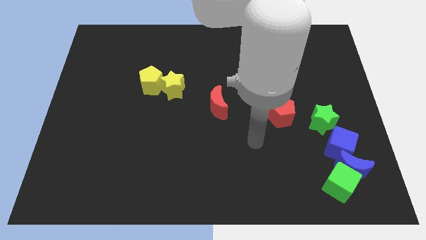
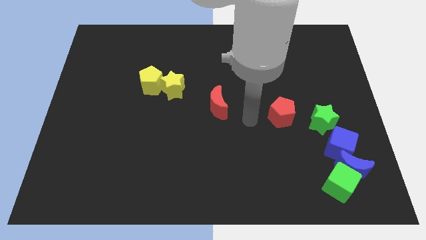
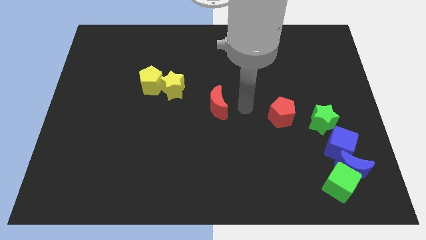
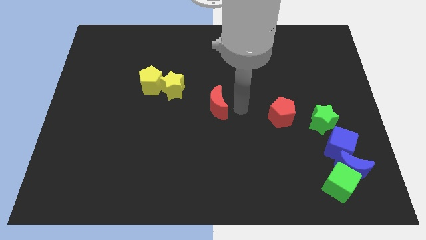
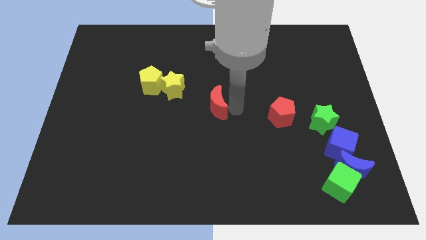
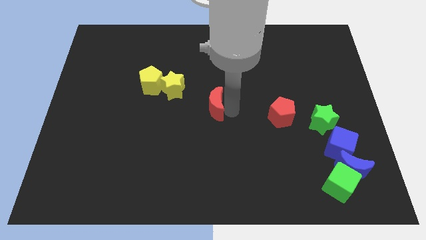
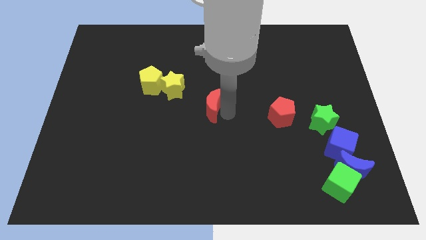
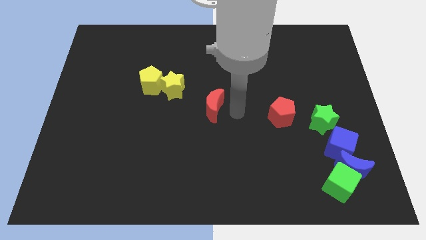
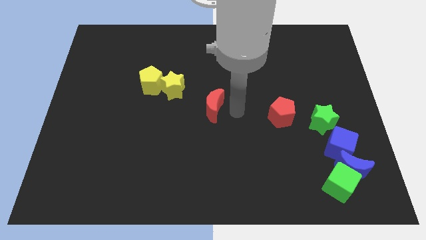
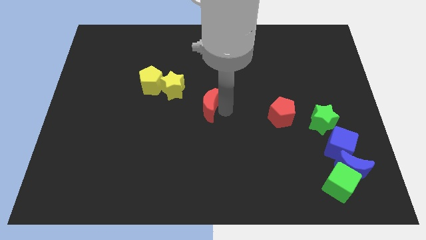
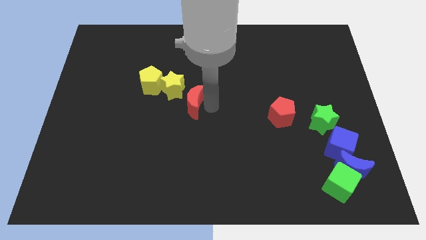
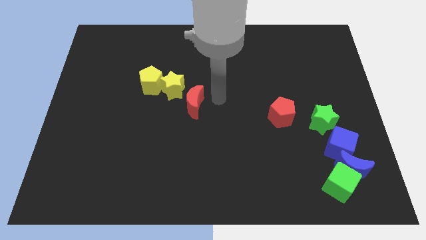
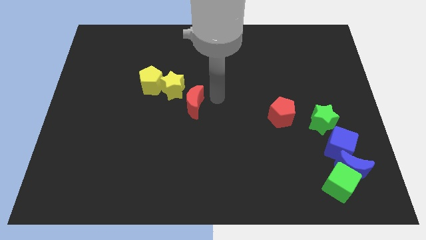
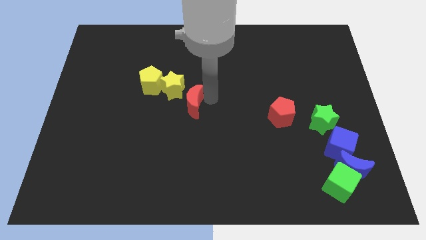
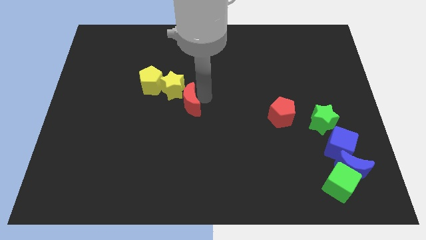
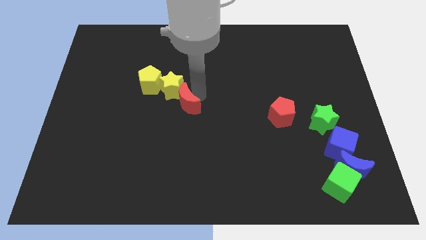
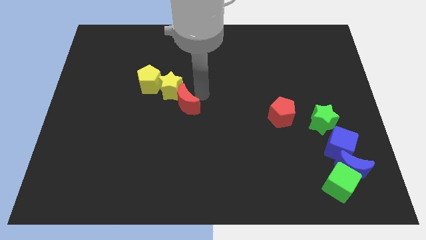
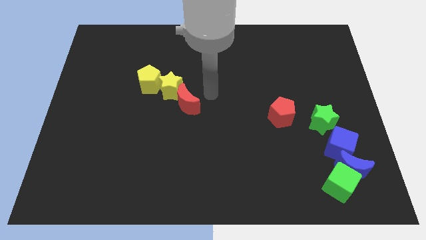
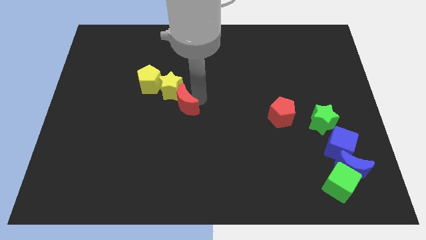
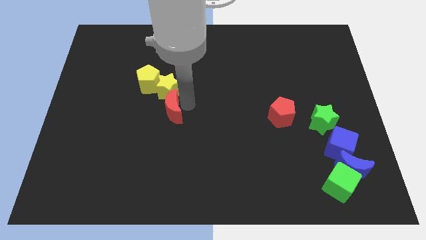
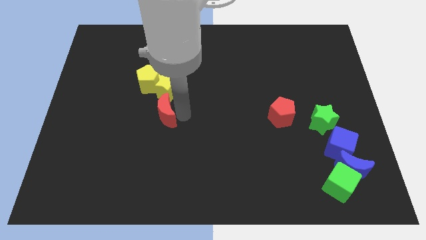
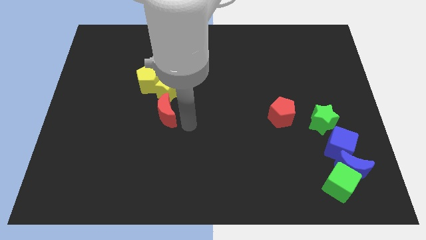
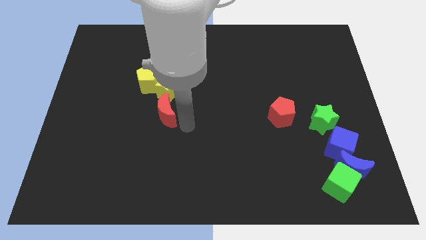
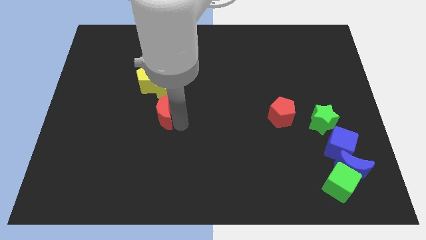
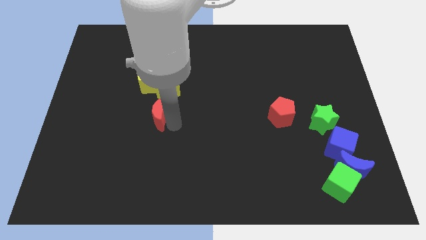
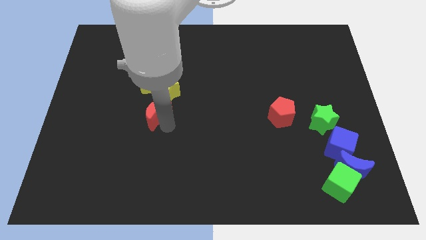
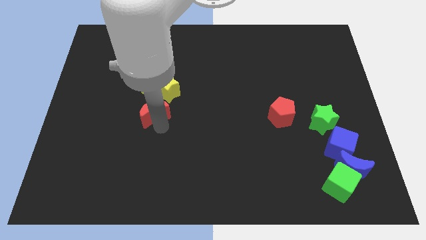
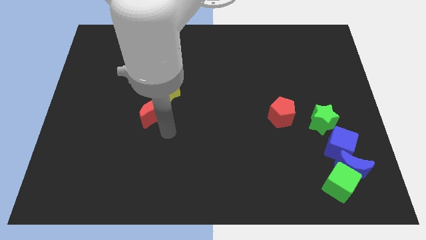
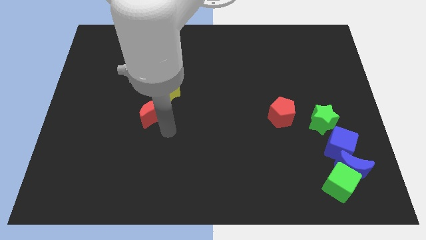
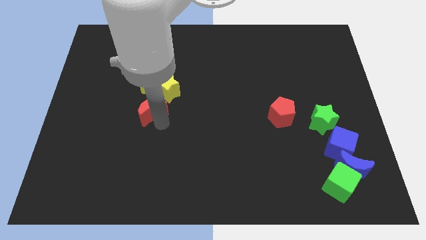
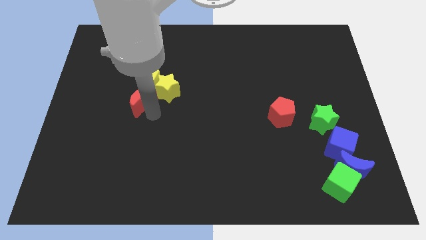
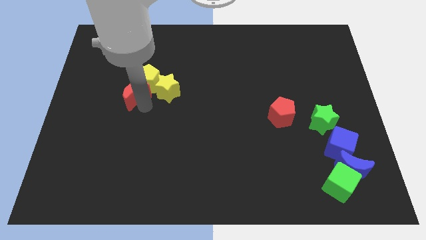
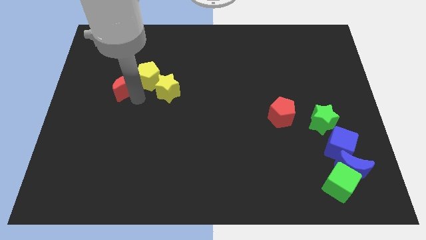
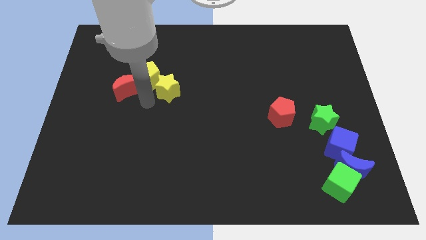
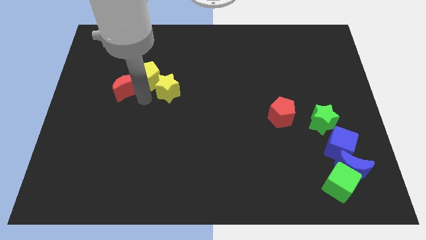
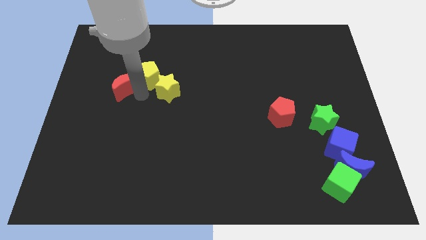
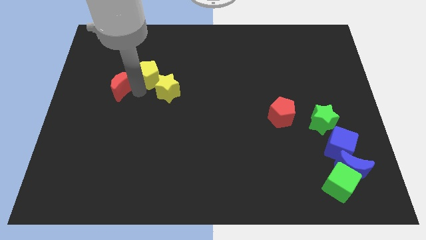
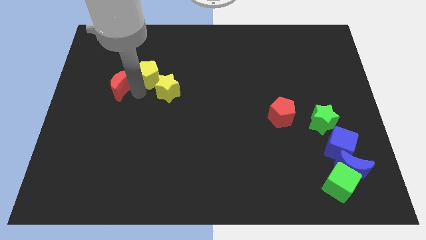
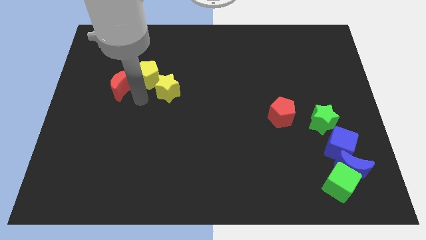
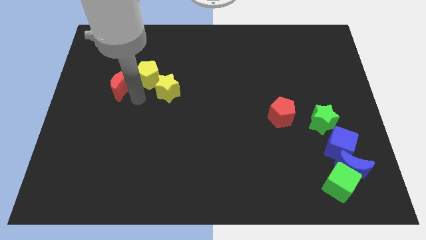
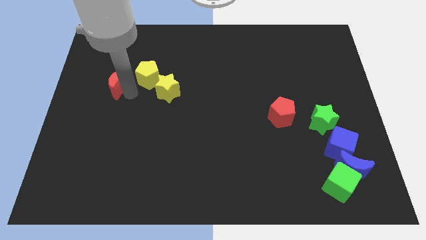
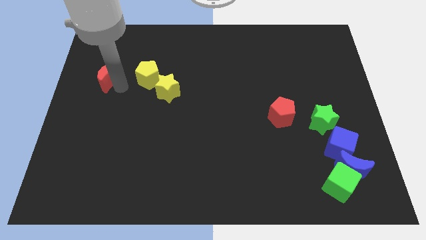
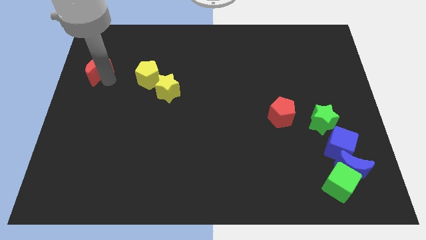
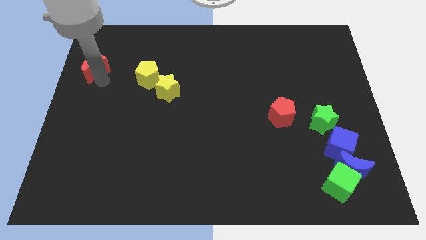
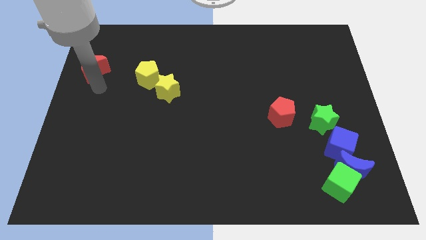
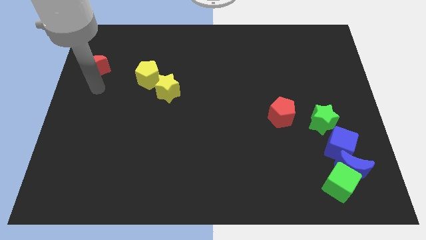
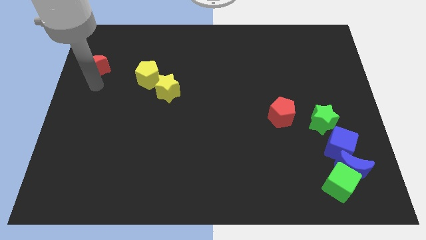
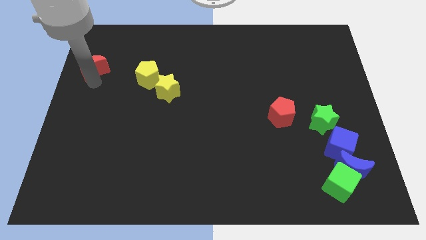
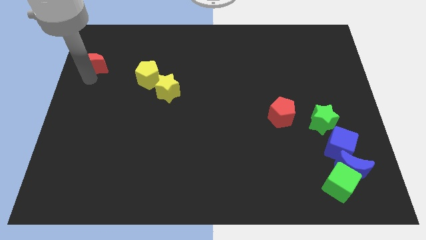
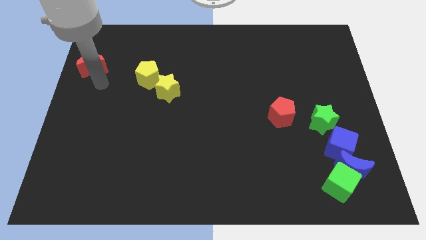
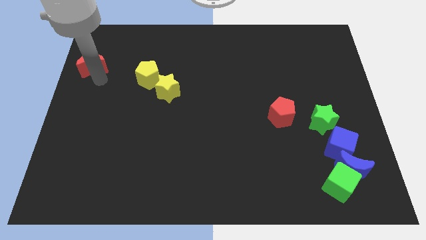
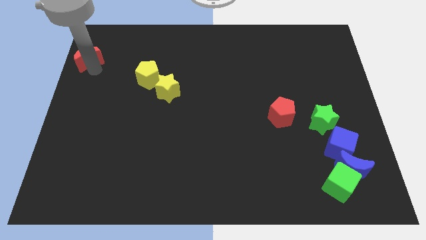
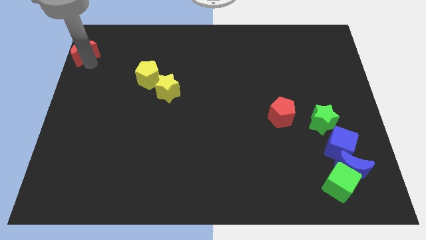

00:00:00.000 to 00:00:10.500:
push the red moon to the top left corner

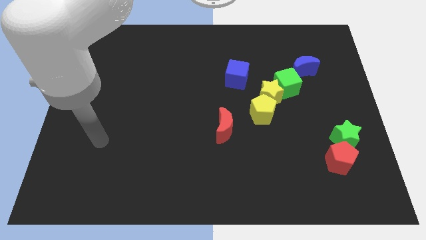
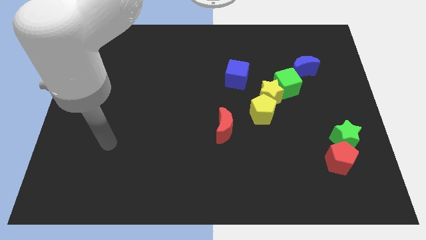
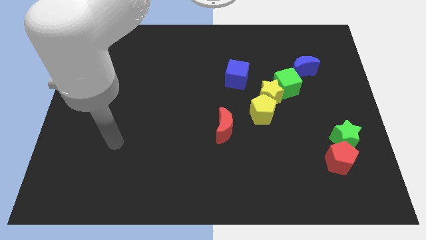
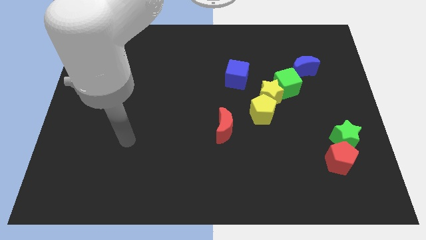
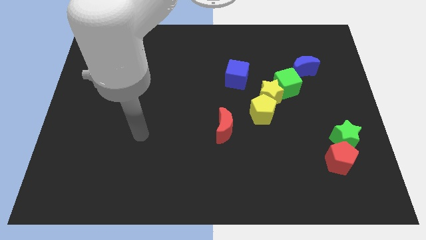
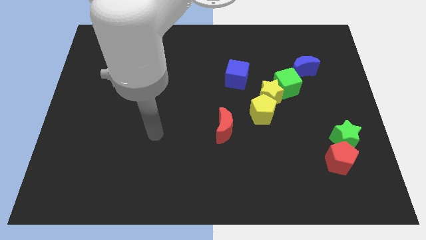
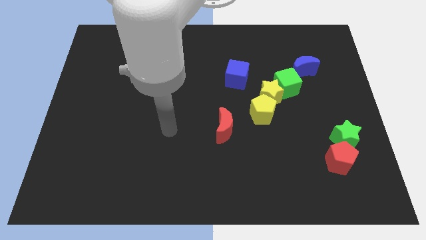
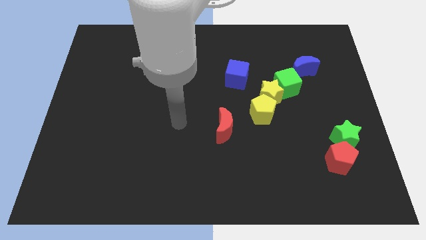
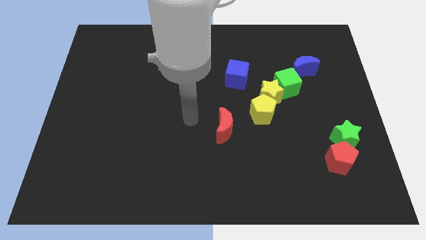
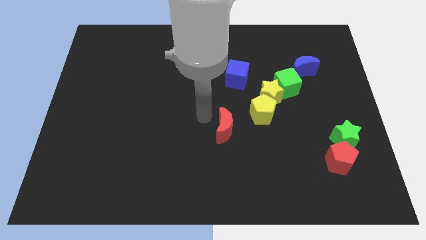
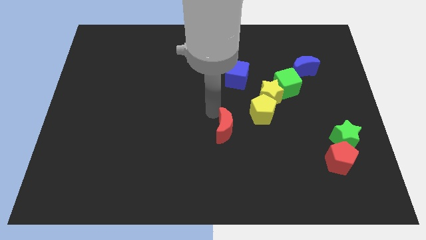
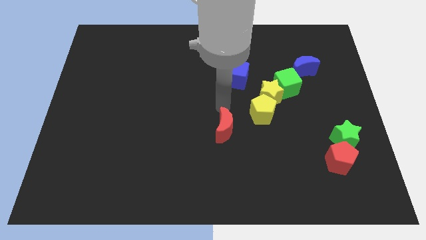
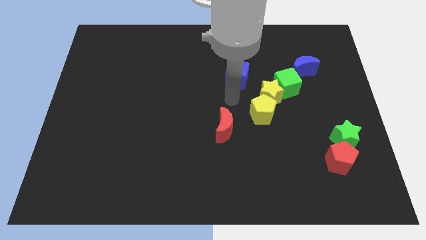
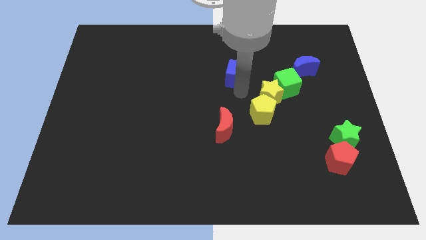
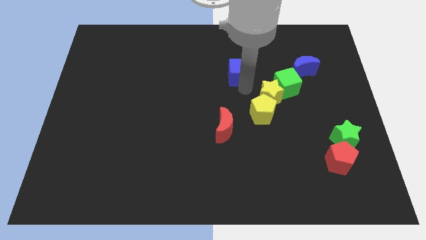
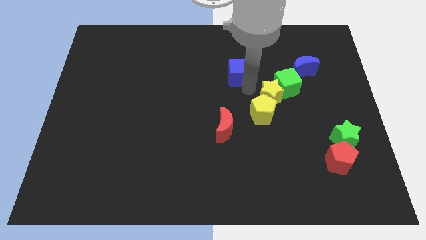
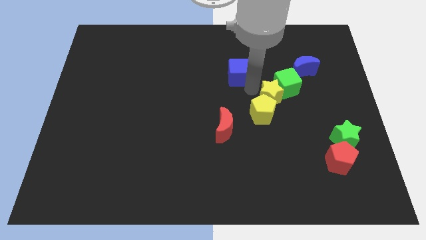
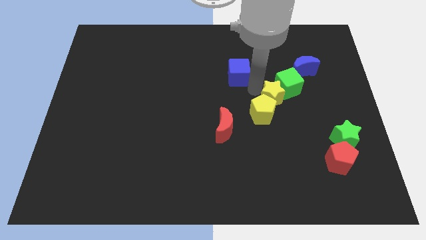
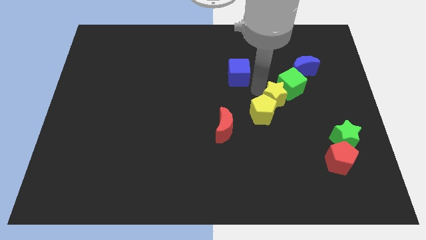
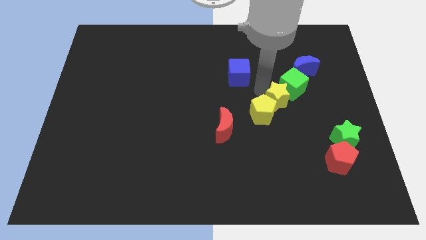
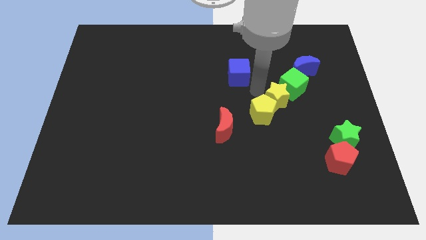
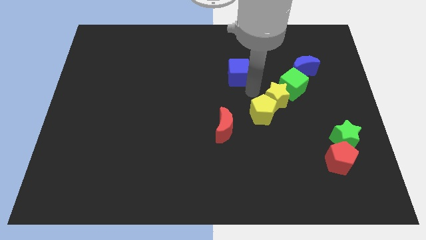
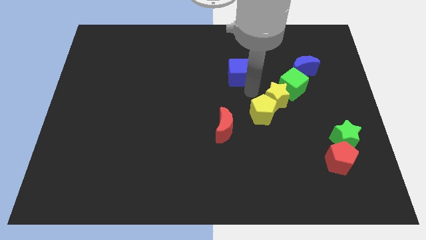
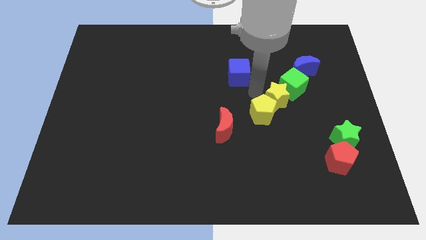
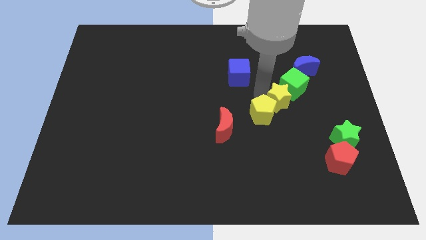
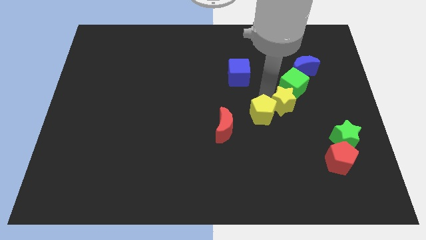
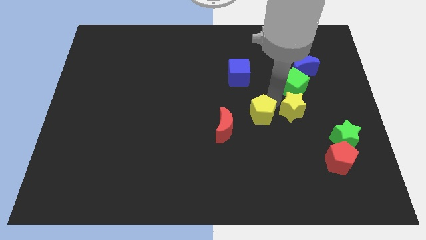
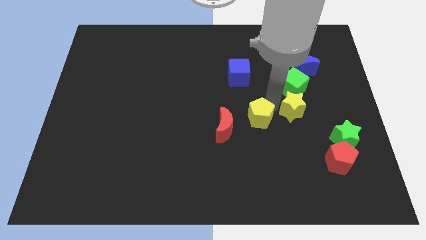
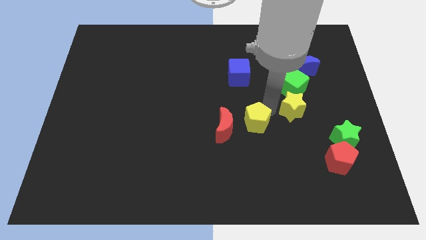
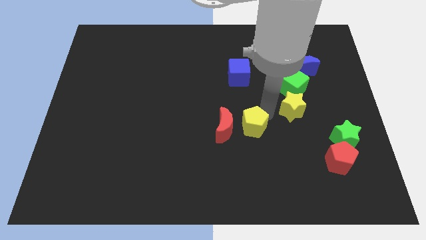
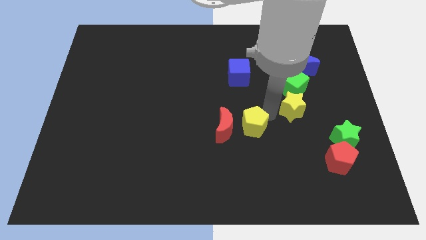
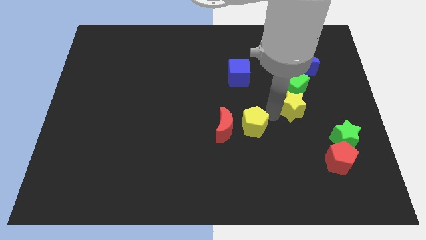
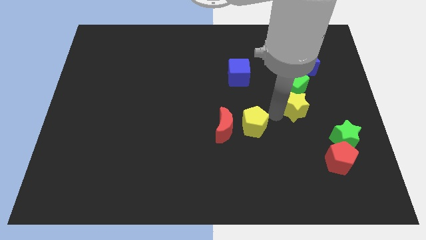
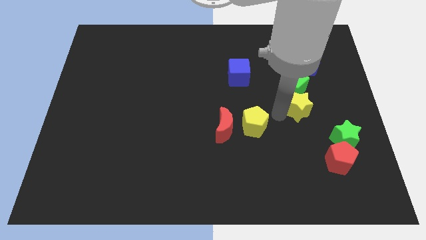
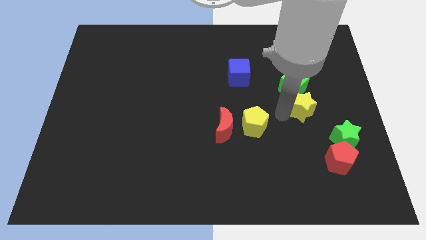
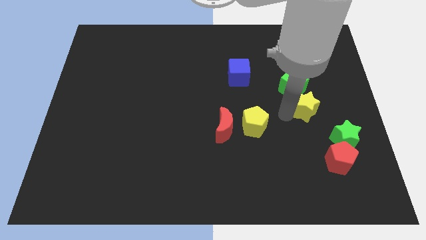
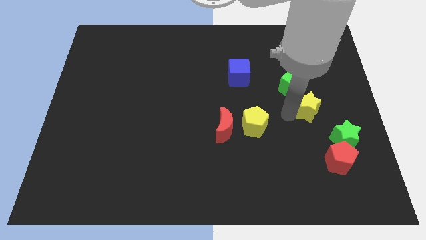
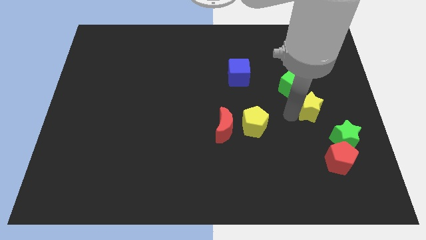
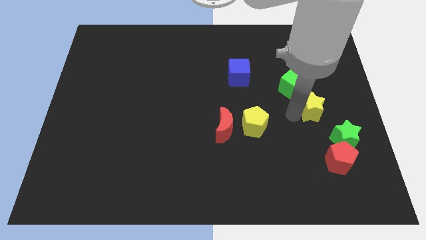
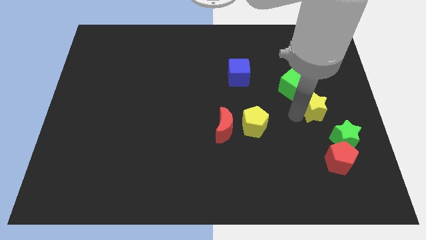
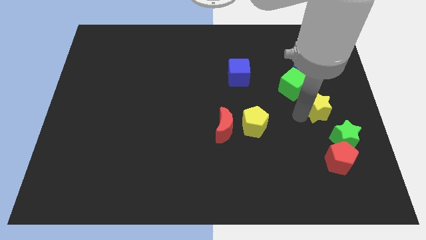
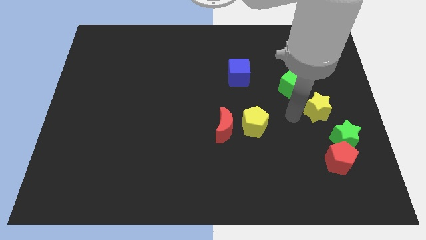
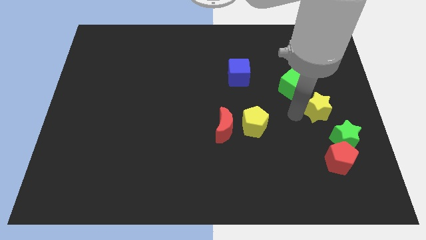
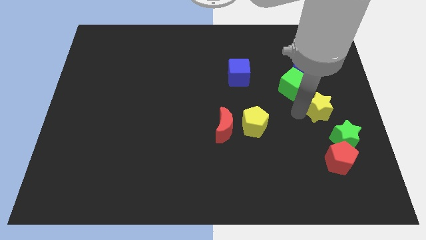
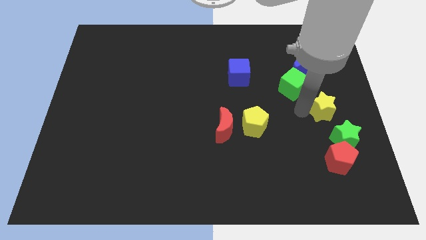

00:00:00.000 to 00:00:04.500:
slide the yellow star to the center right
